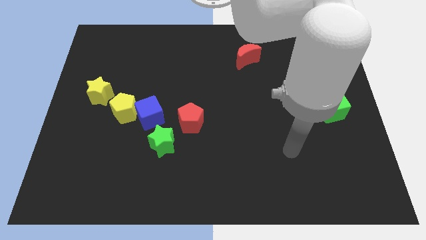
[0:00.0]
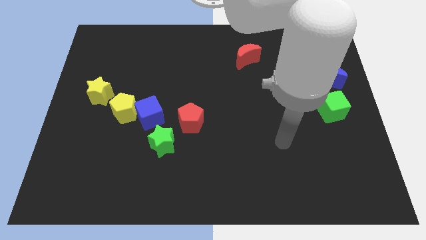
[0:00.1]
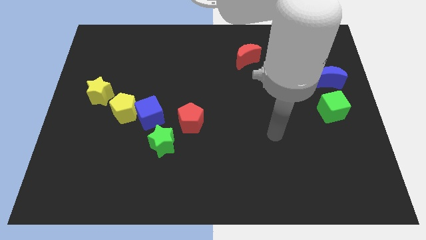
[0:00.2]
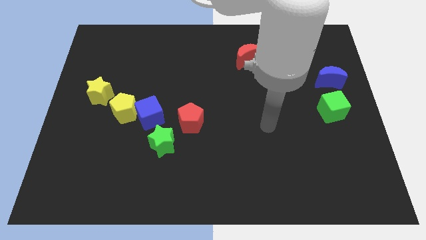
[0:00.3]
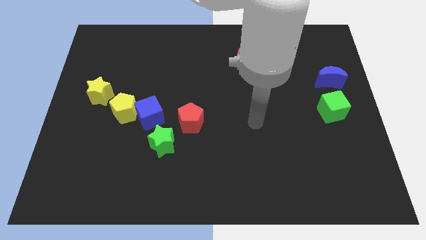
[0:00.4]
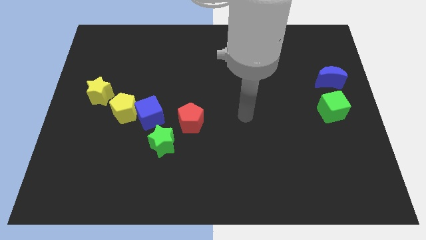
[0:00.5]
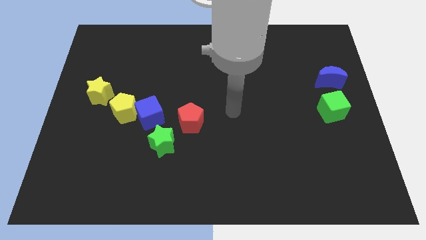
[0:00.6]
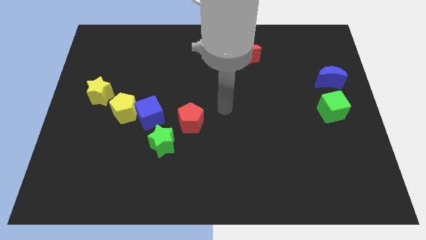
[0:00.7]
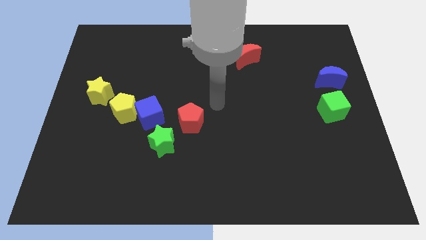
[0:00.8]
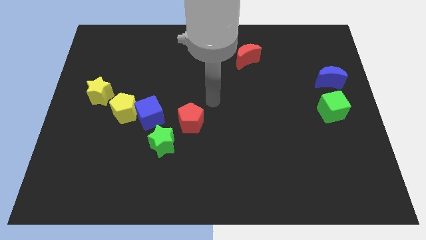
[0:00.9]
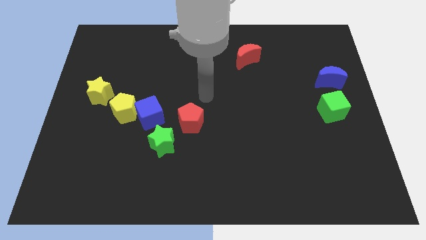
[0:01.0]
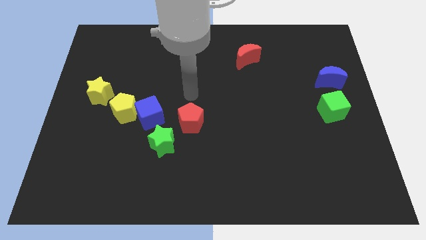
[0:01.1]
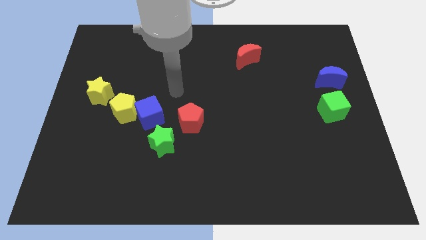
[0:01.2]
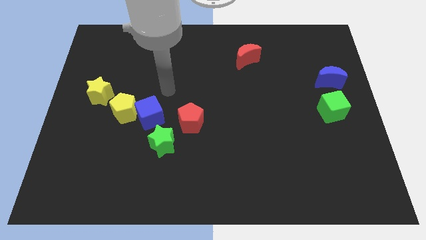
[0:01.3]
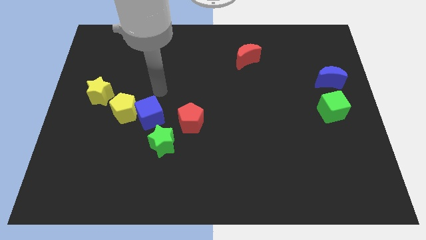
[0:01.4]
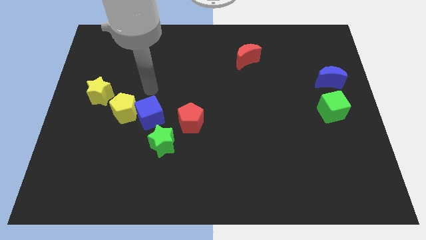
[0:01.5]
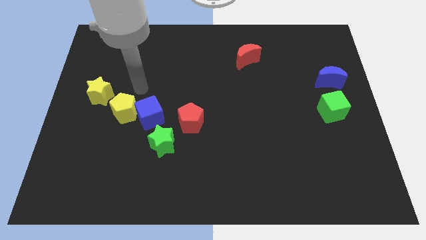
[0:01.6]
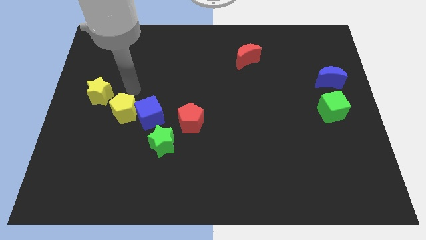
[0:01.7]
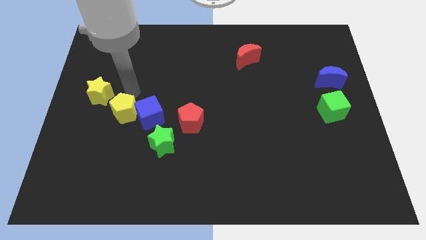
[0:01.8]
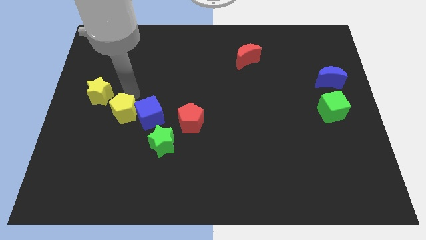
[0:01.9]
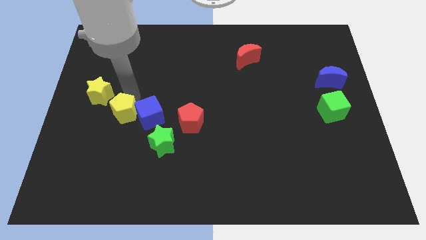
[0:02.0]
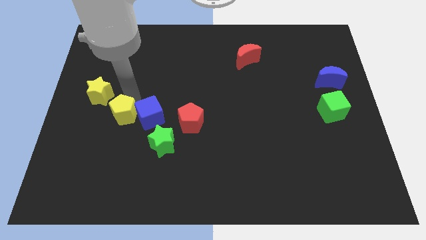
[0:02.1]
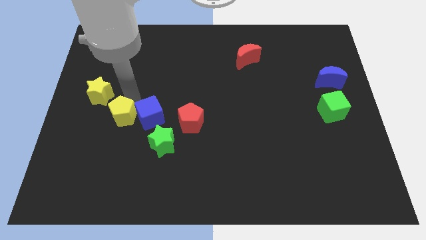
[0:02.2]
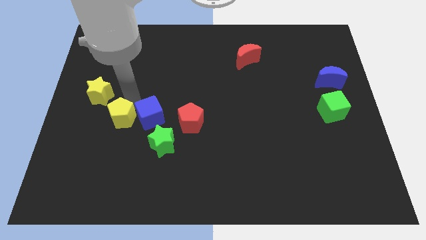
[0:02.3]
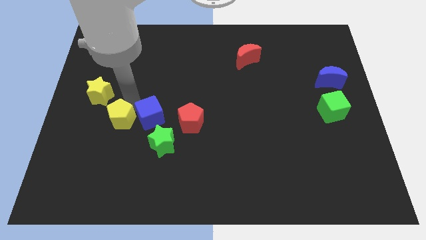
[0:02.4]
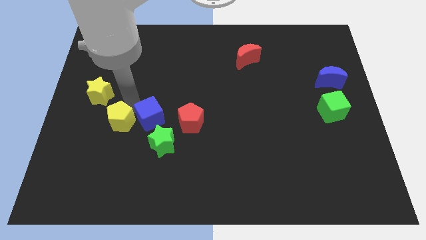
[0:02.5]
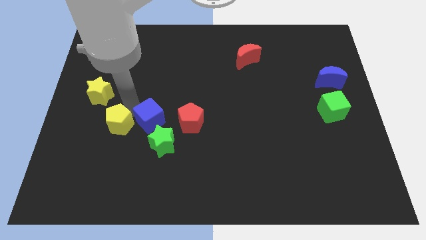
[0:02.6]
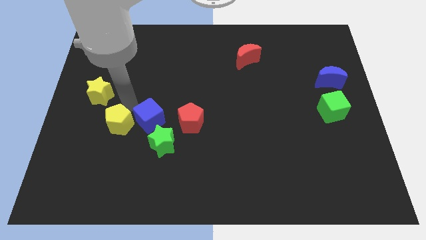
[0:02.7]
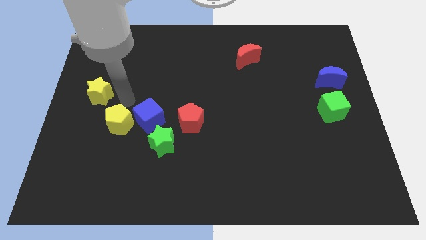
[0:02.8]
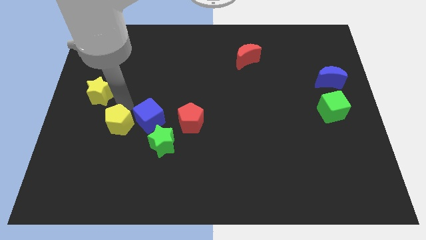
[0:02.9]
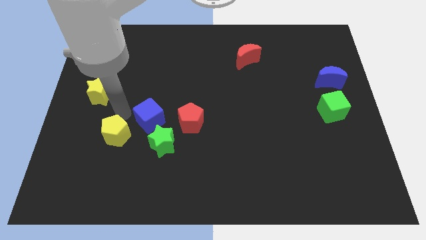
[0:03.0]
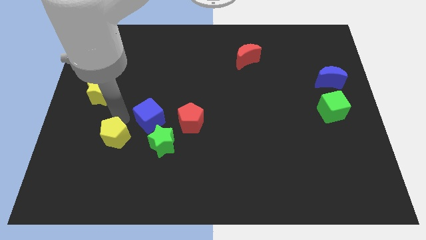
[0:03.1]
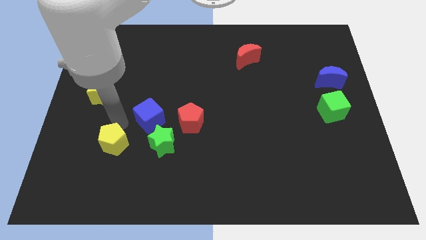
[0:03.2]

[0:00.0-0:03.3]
separate the yellow pentagon from the blue cube and yellow star

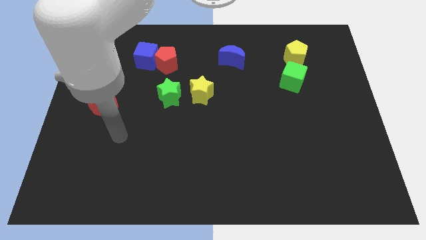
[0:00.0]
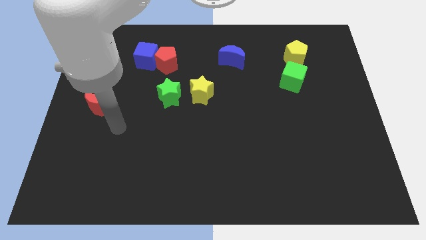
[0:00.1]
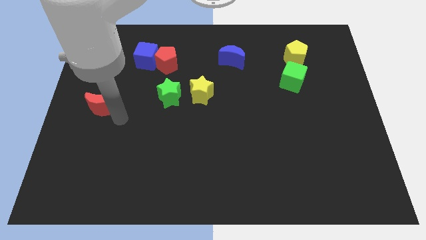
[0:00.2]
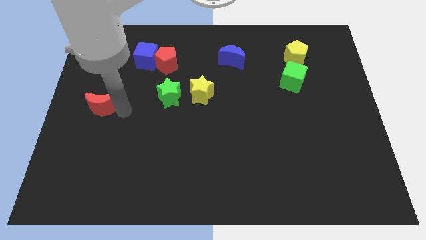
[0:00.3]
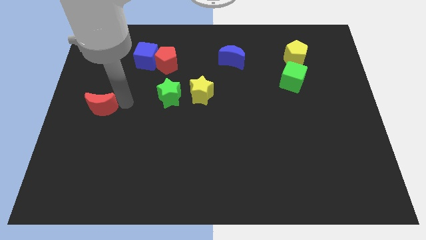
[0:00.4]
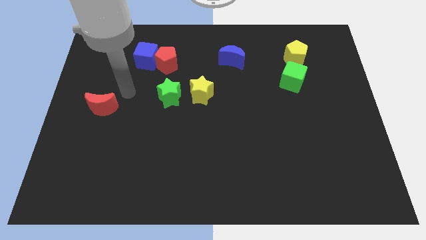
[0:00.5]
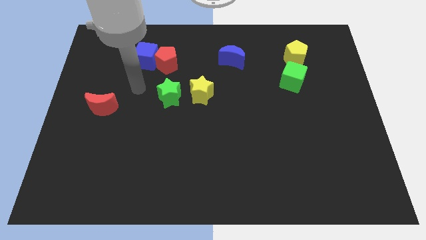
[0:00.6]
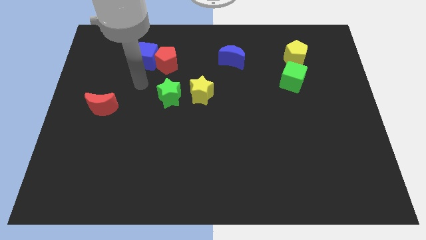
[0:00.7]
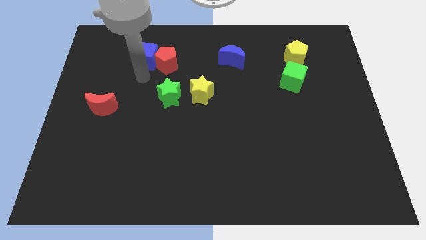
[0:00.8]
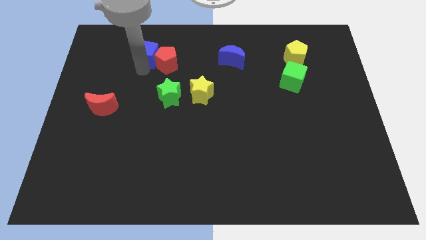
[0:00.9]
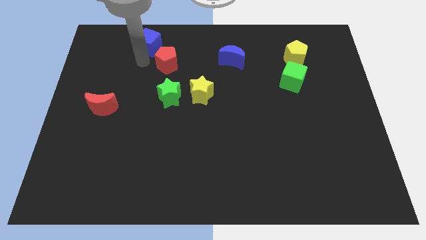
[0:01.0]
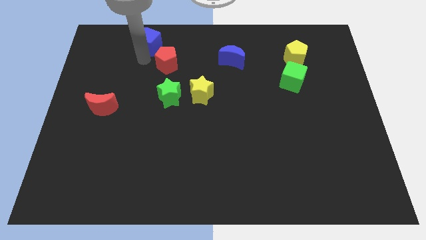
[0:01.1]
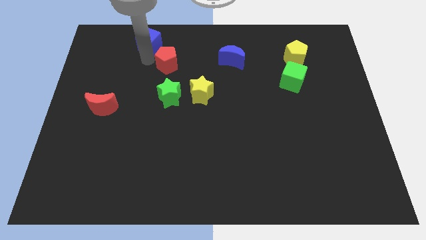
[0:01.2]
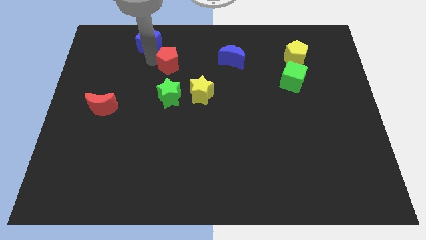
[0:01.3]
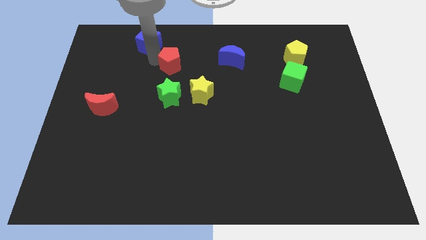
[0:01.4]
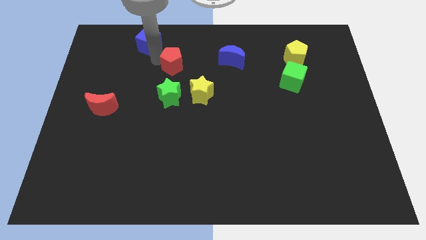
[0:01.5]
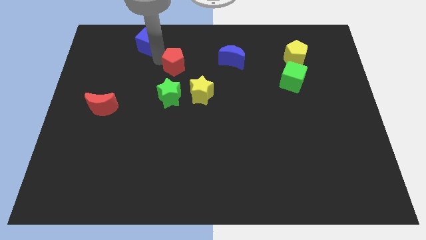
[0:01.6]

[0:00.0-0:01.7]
move the red pentagon away from the blue cube

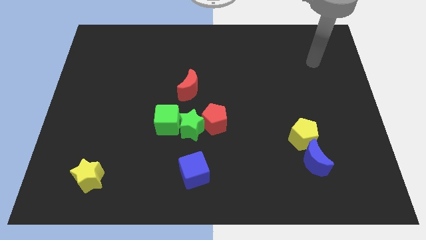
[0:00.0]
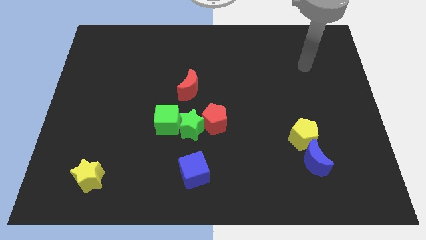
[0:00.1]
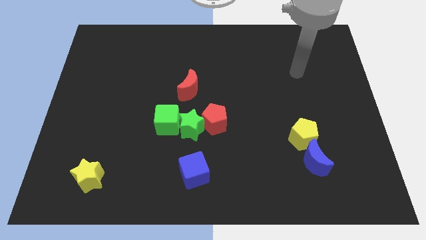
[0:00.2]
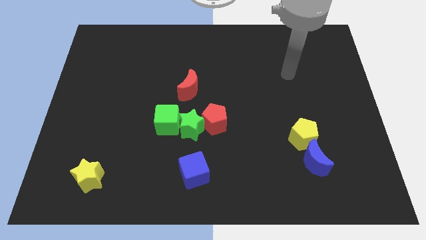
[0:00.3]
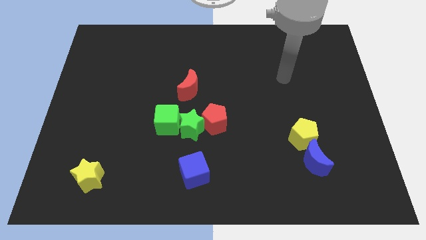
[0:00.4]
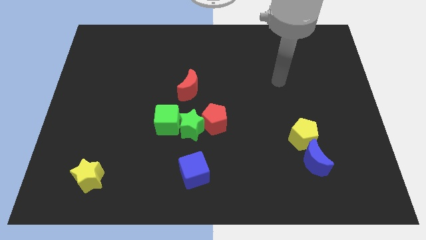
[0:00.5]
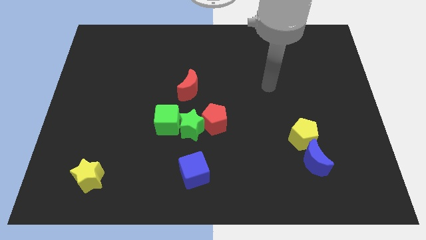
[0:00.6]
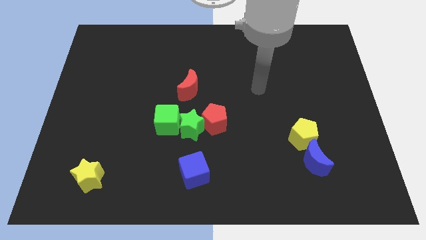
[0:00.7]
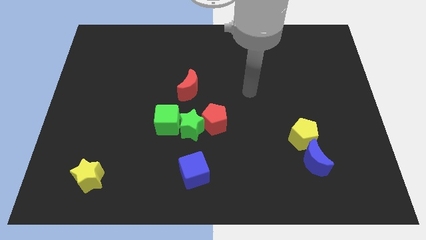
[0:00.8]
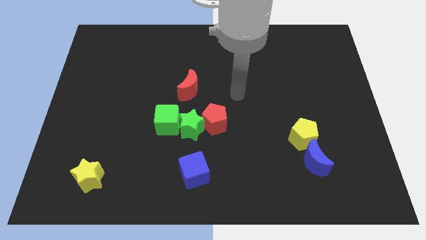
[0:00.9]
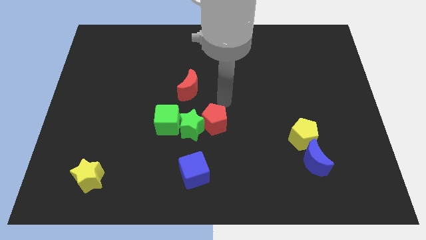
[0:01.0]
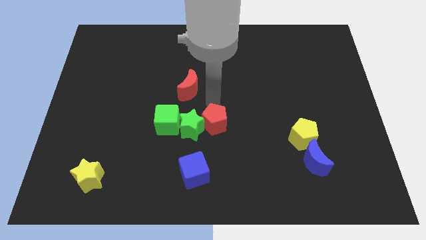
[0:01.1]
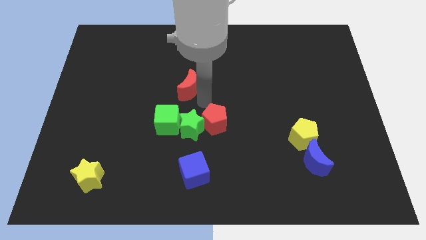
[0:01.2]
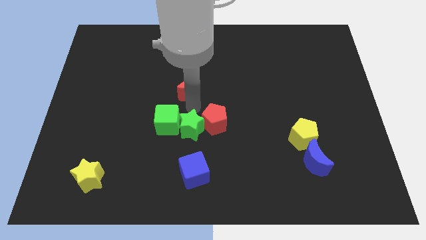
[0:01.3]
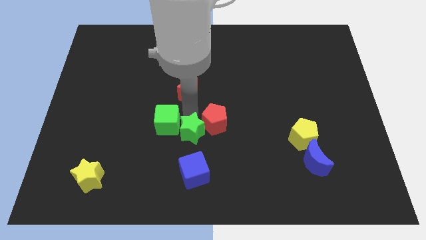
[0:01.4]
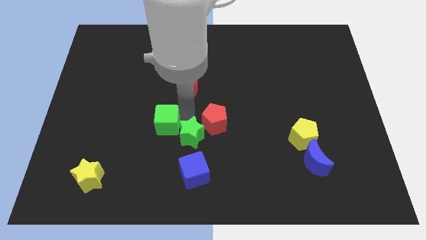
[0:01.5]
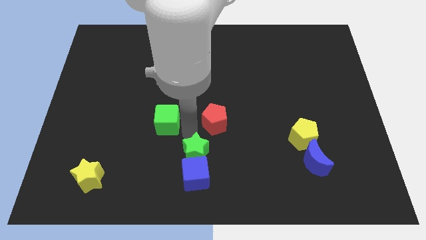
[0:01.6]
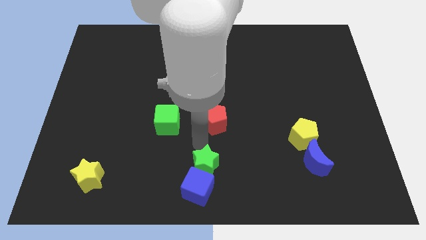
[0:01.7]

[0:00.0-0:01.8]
move the red pentagon away from the green star

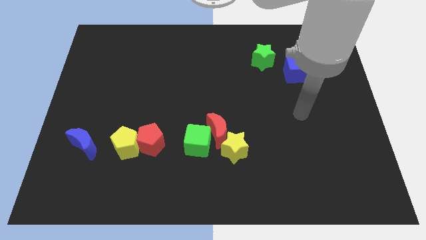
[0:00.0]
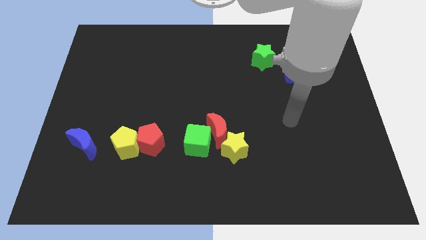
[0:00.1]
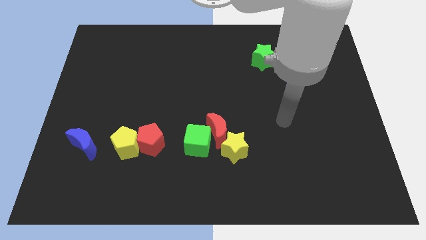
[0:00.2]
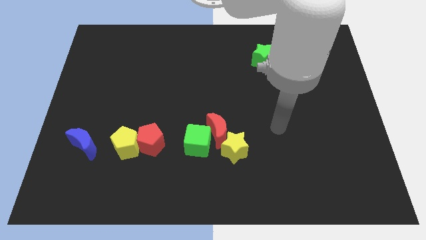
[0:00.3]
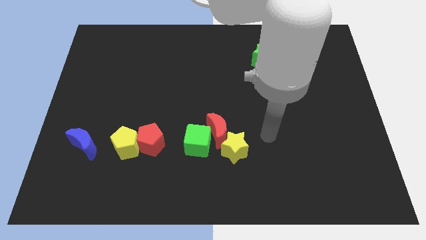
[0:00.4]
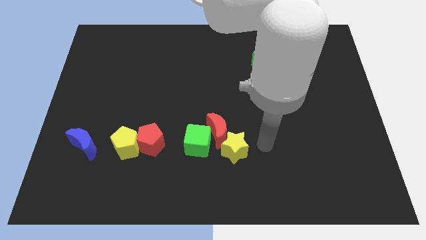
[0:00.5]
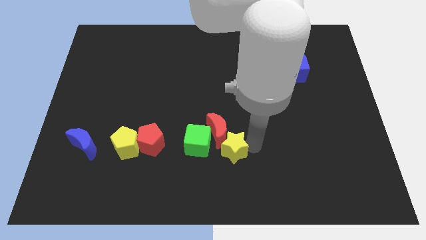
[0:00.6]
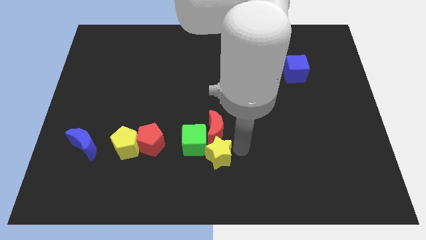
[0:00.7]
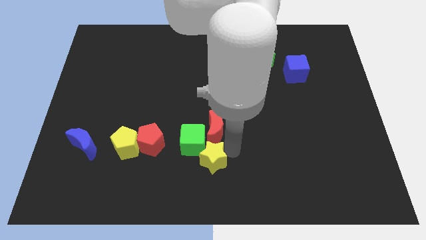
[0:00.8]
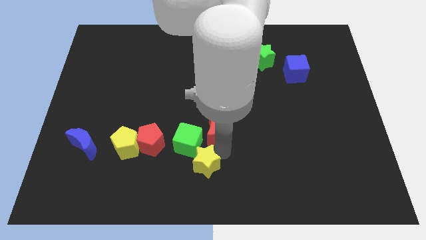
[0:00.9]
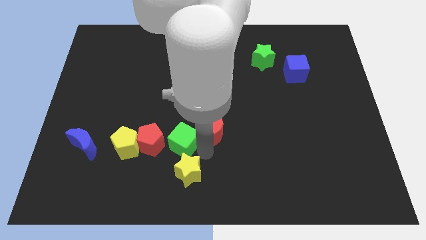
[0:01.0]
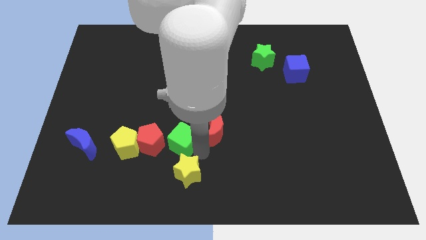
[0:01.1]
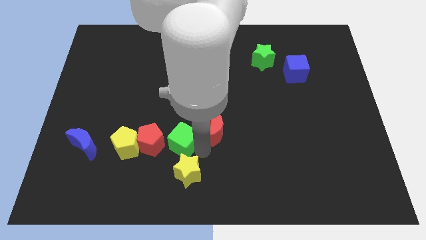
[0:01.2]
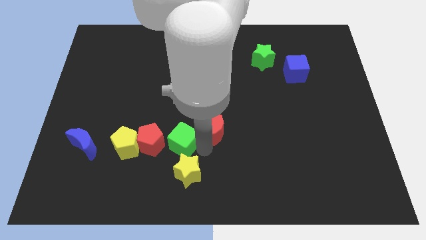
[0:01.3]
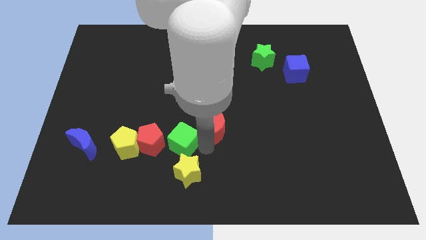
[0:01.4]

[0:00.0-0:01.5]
pull the red moon apart from the green cube and yellow star

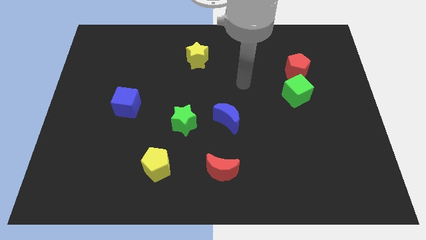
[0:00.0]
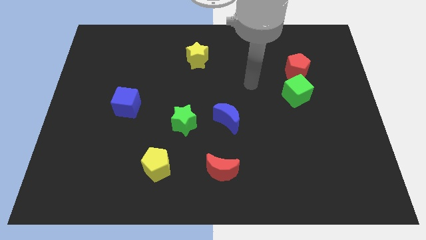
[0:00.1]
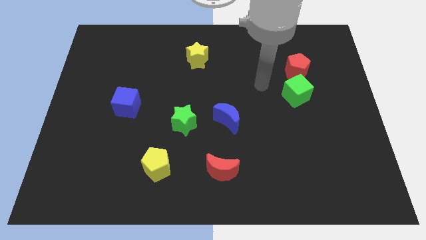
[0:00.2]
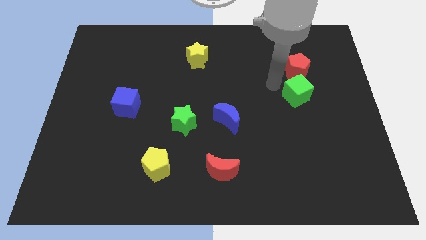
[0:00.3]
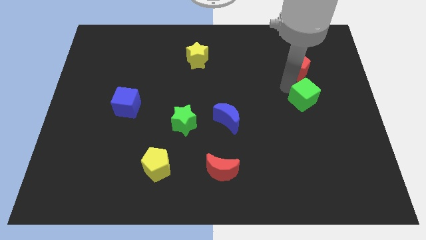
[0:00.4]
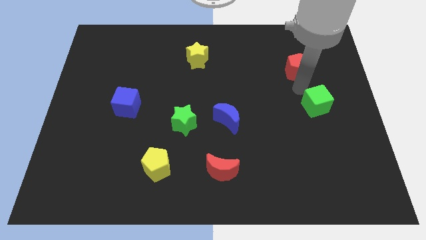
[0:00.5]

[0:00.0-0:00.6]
separate the red pentagon from the green cube

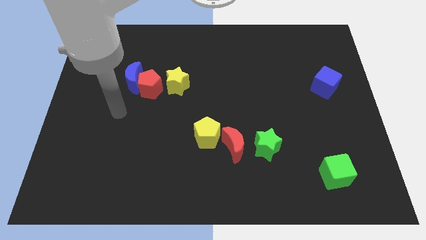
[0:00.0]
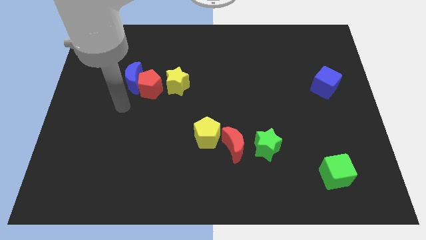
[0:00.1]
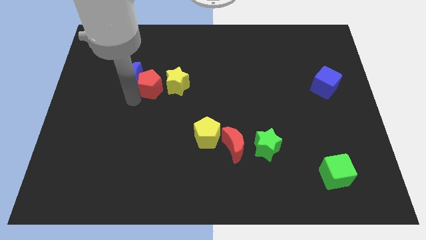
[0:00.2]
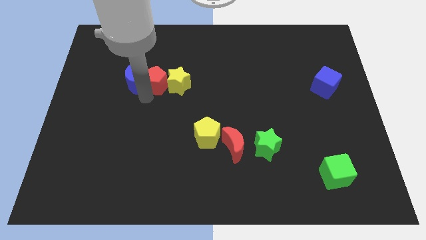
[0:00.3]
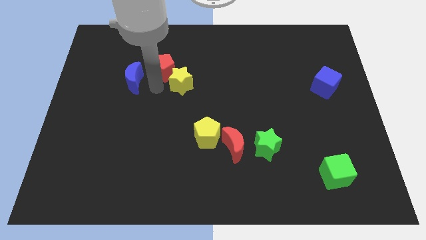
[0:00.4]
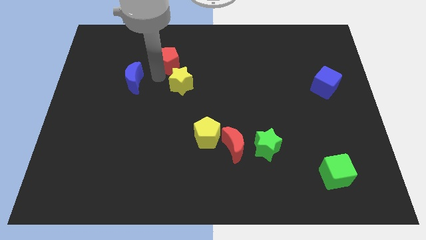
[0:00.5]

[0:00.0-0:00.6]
move the blue moon away from the red pentagon
